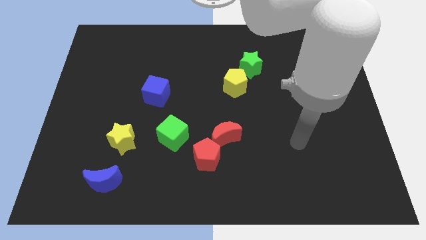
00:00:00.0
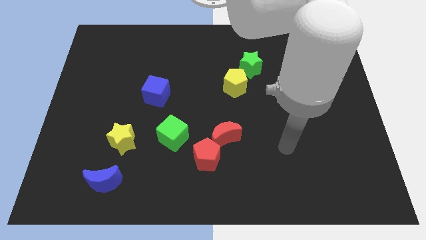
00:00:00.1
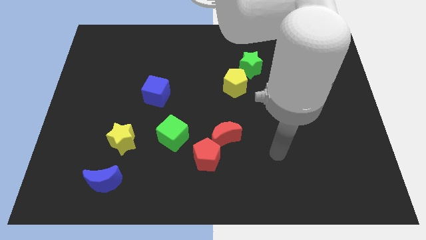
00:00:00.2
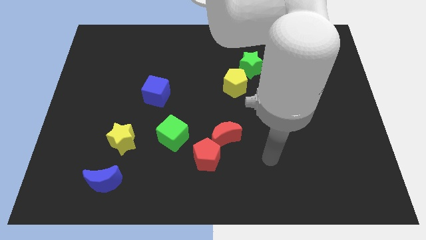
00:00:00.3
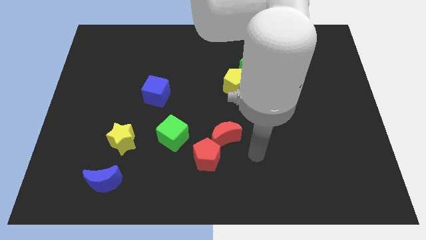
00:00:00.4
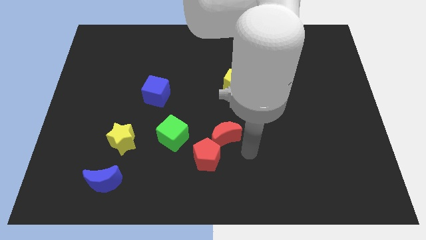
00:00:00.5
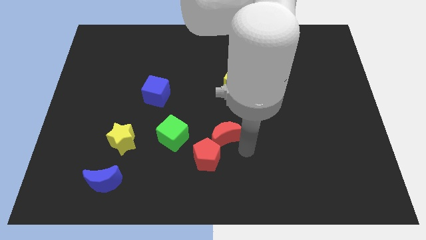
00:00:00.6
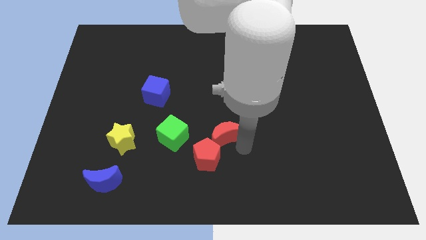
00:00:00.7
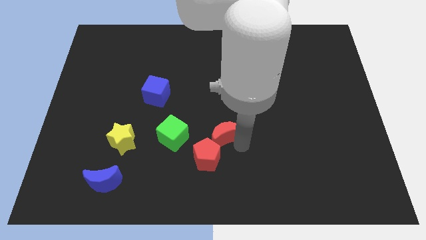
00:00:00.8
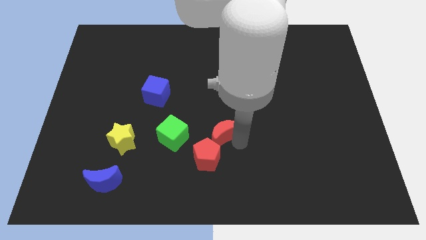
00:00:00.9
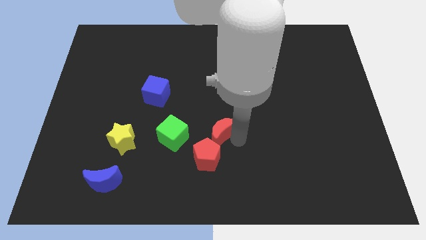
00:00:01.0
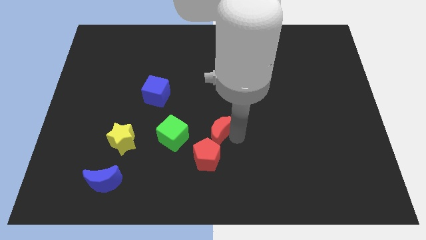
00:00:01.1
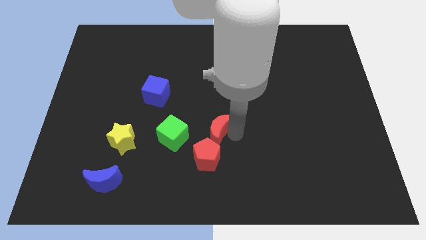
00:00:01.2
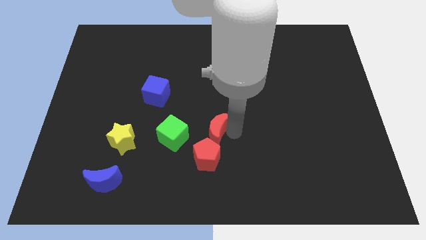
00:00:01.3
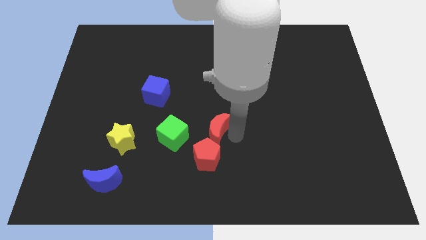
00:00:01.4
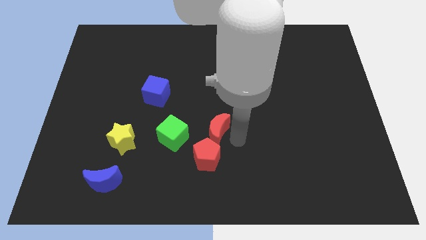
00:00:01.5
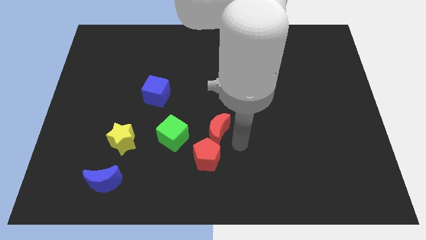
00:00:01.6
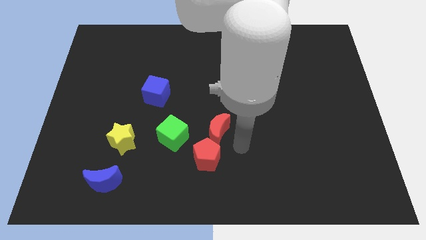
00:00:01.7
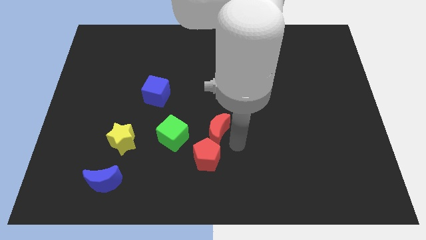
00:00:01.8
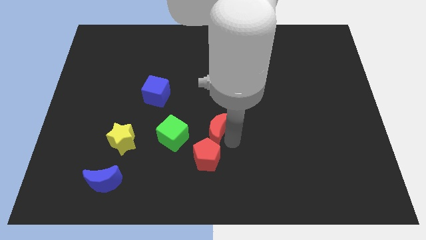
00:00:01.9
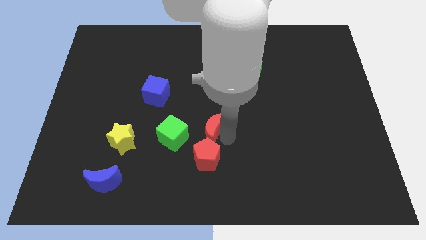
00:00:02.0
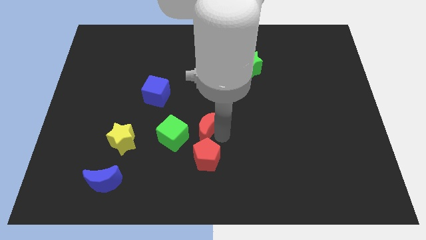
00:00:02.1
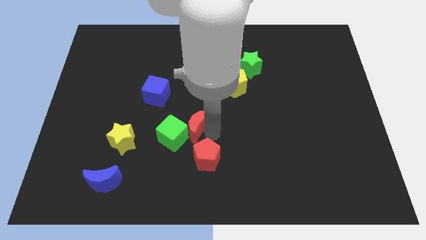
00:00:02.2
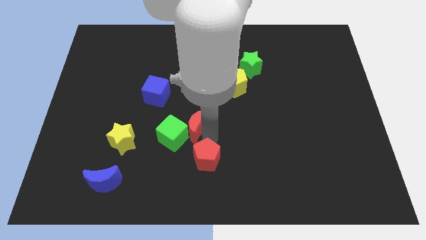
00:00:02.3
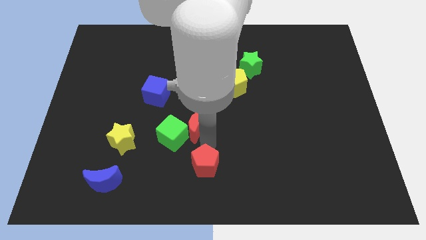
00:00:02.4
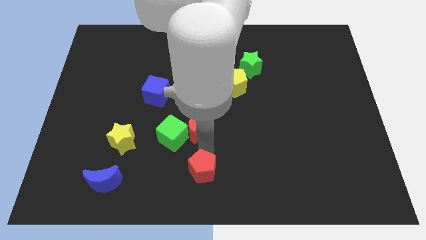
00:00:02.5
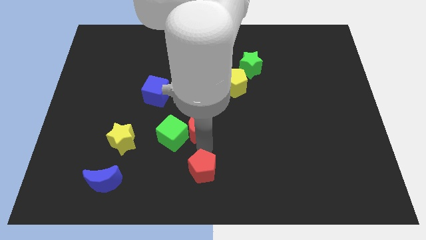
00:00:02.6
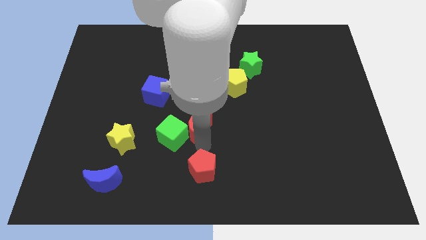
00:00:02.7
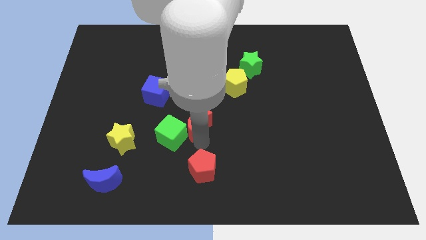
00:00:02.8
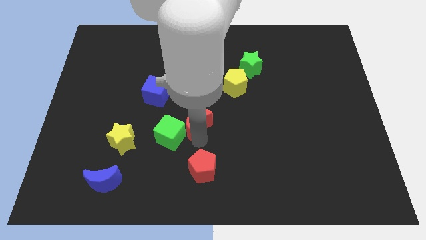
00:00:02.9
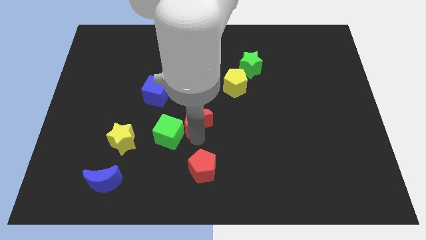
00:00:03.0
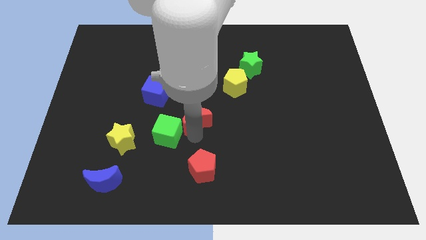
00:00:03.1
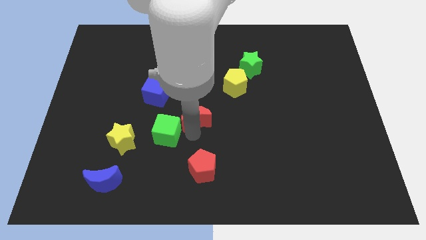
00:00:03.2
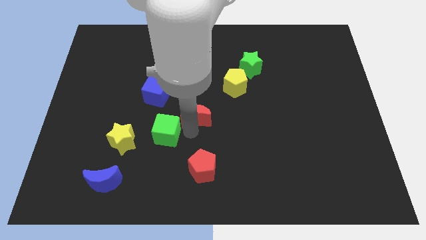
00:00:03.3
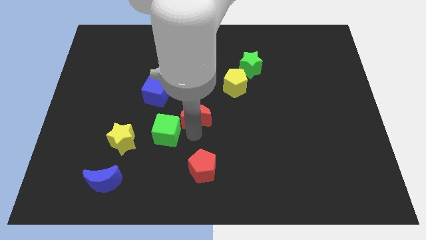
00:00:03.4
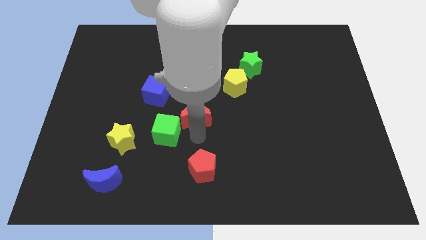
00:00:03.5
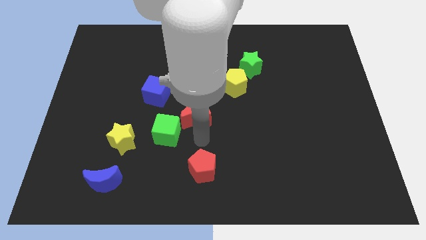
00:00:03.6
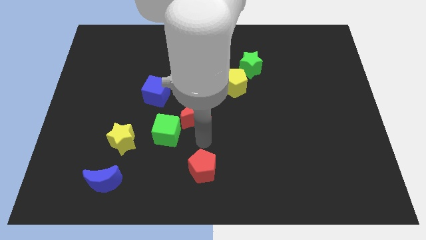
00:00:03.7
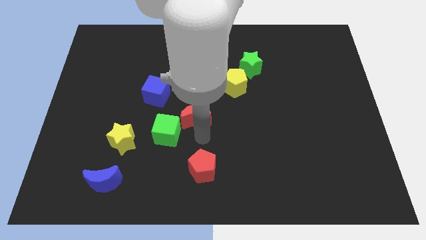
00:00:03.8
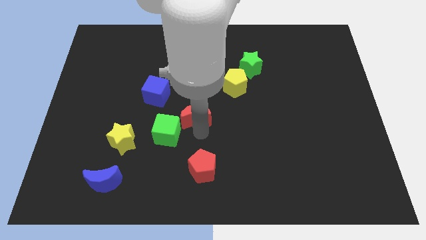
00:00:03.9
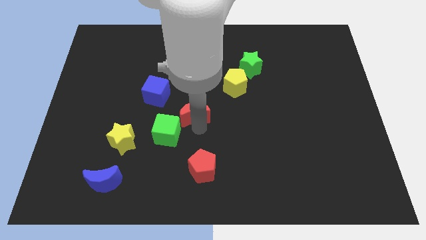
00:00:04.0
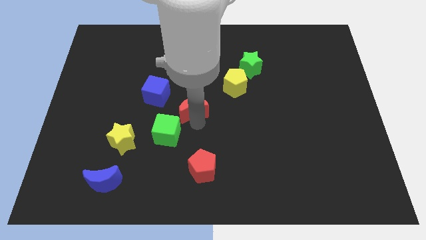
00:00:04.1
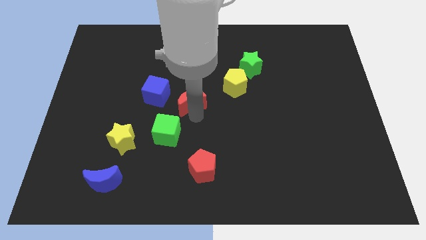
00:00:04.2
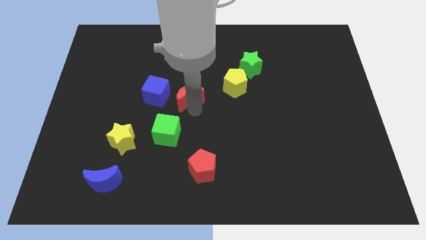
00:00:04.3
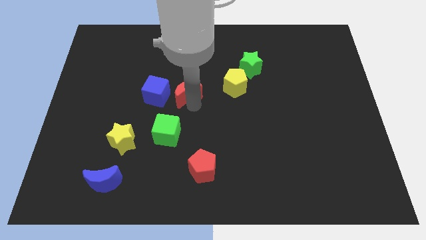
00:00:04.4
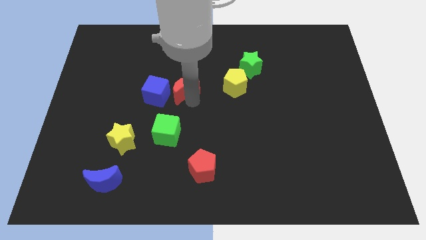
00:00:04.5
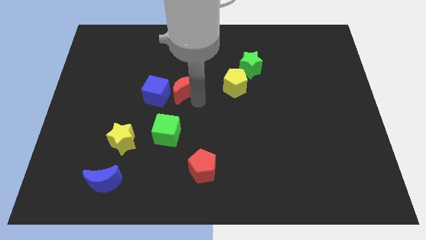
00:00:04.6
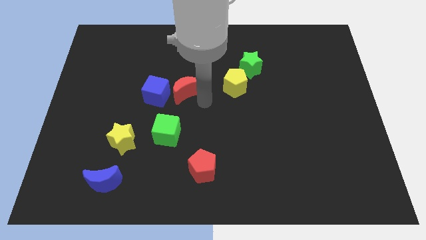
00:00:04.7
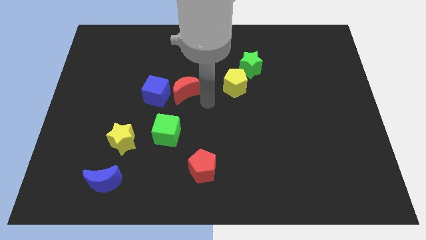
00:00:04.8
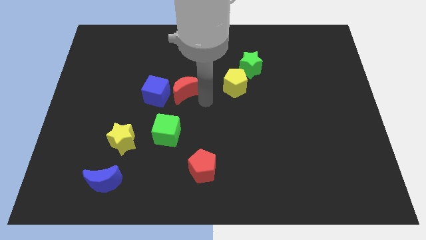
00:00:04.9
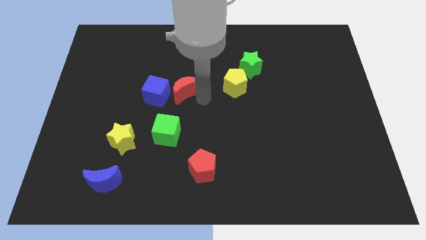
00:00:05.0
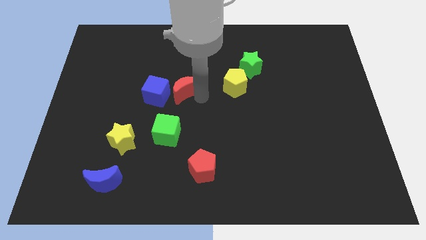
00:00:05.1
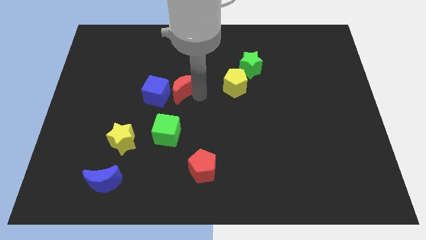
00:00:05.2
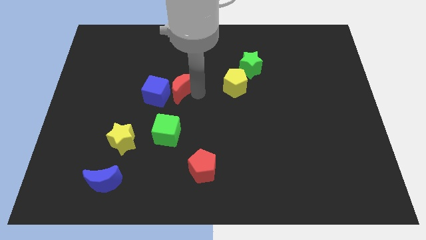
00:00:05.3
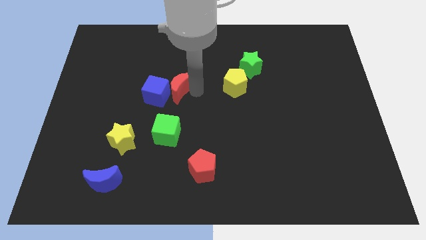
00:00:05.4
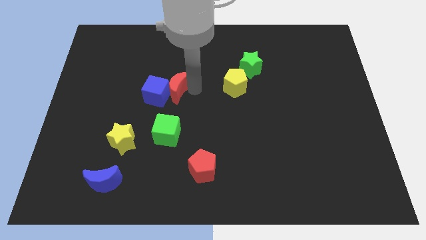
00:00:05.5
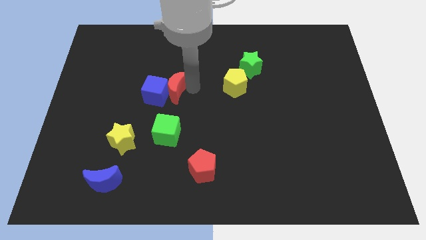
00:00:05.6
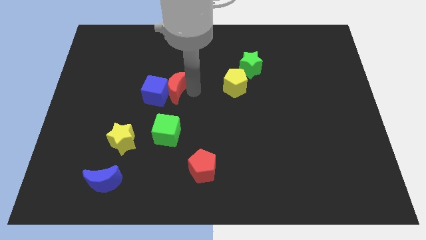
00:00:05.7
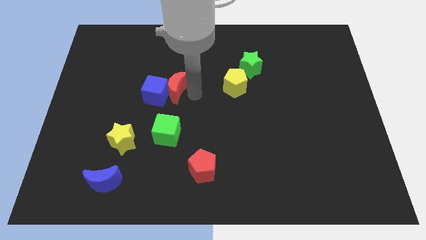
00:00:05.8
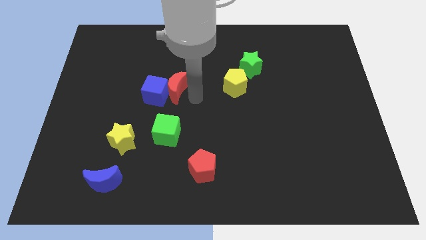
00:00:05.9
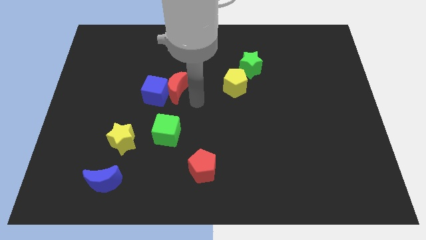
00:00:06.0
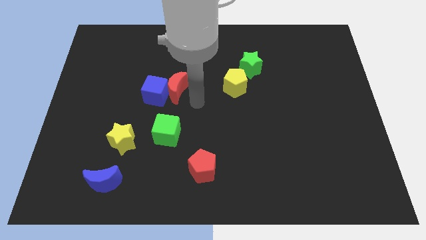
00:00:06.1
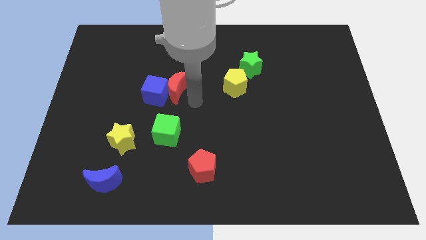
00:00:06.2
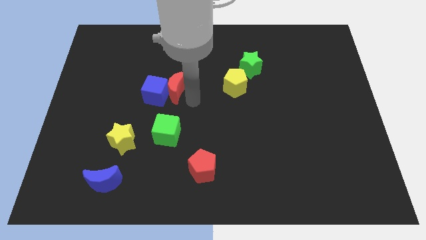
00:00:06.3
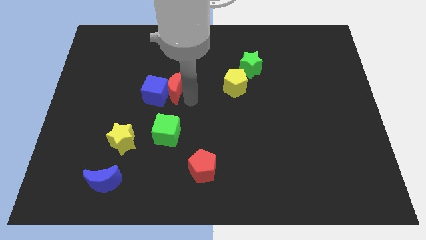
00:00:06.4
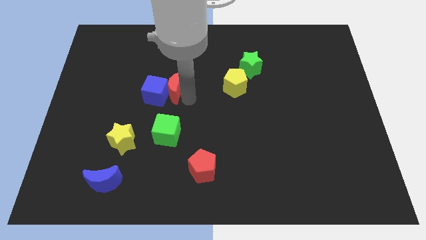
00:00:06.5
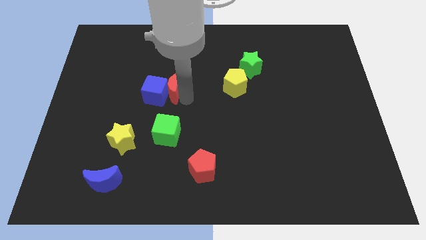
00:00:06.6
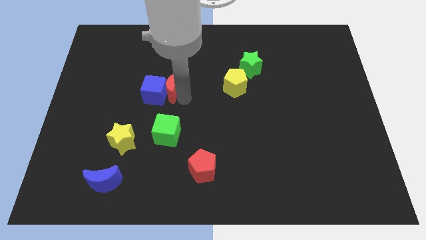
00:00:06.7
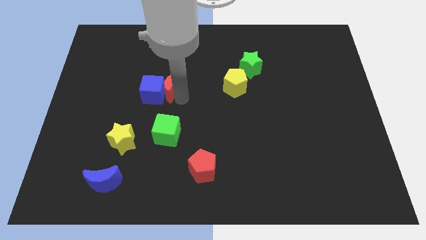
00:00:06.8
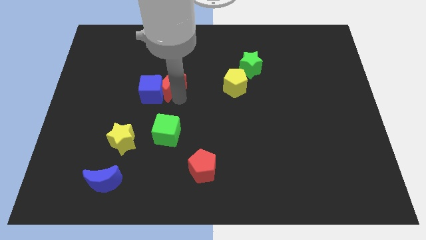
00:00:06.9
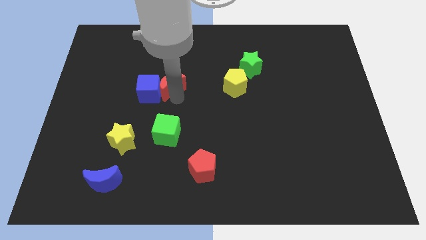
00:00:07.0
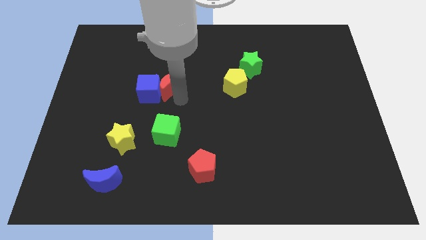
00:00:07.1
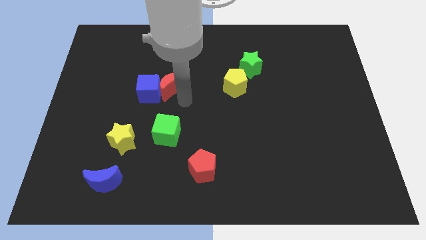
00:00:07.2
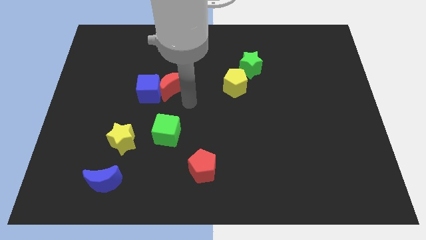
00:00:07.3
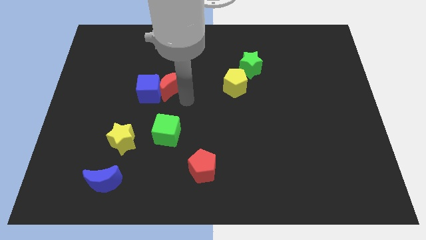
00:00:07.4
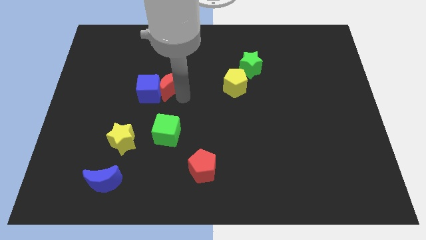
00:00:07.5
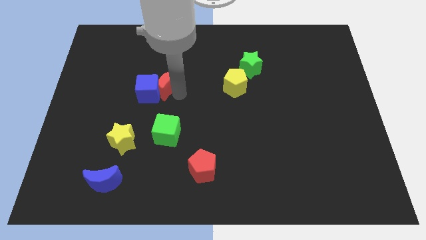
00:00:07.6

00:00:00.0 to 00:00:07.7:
slide the red moon up and to the left diagonally
